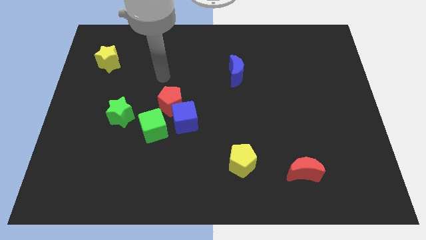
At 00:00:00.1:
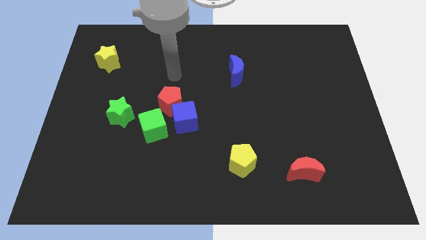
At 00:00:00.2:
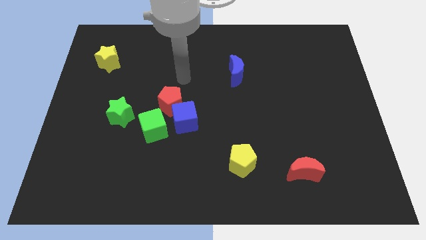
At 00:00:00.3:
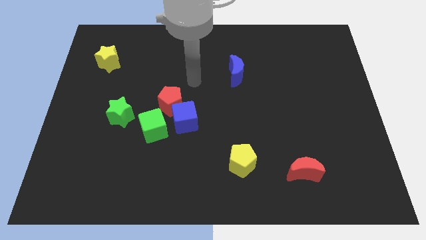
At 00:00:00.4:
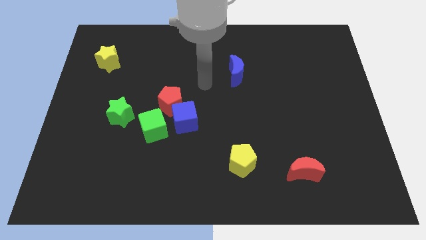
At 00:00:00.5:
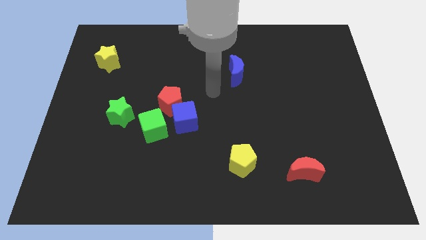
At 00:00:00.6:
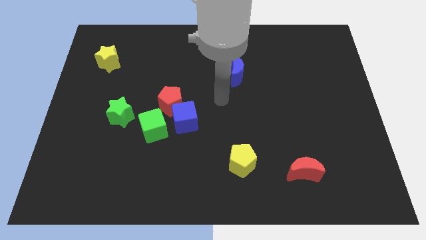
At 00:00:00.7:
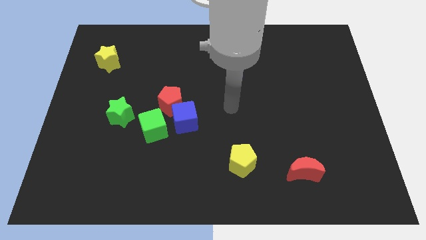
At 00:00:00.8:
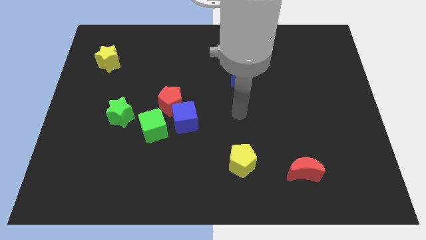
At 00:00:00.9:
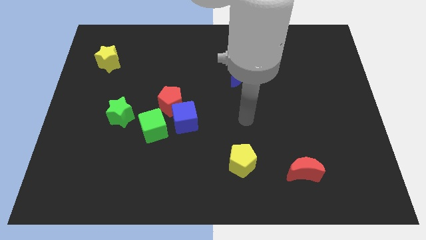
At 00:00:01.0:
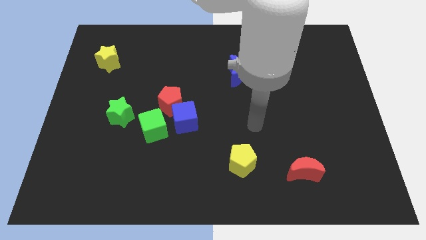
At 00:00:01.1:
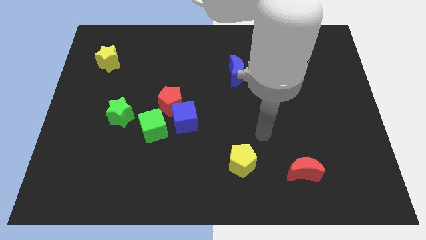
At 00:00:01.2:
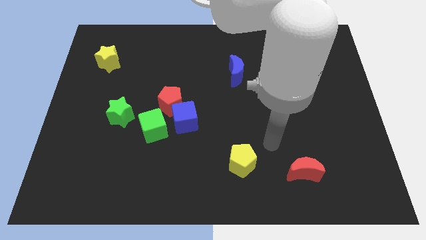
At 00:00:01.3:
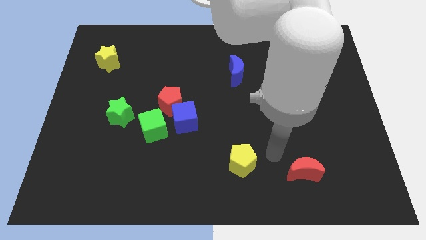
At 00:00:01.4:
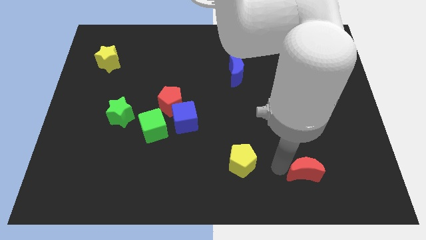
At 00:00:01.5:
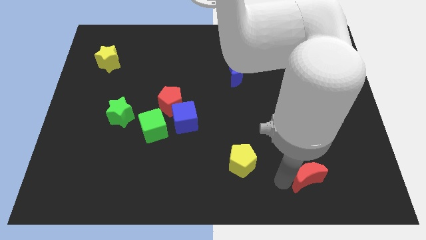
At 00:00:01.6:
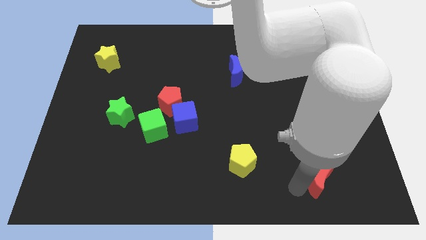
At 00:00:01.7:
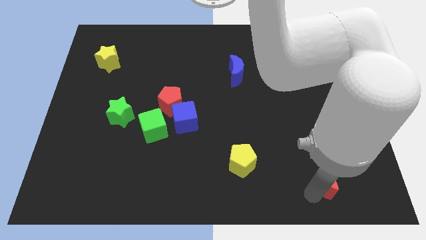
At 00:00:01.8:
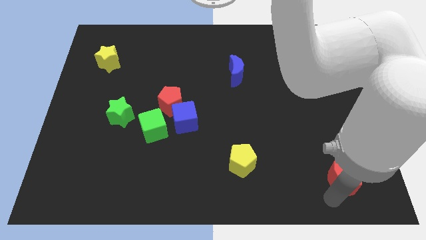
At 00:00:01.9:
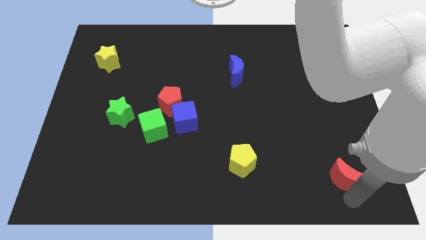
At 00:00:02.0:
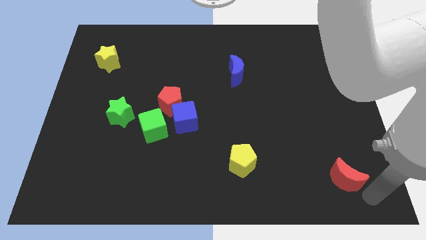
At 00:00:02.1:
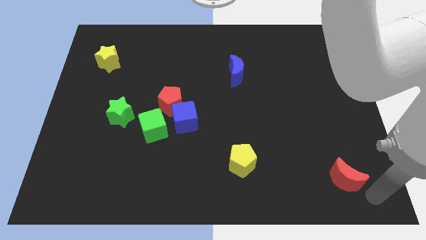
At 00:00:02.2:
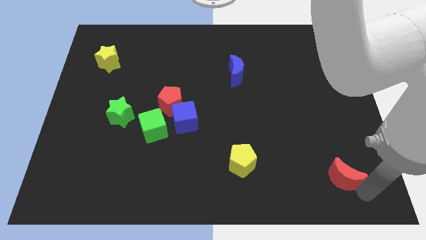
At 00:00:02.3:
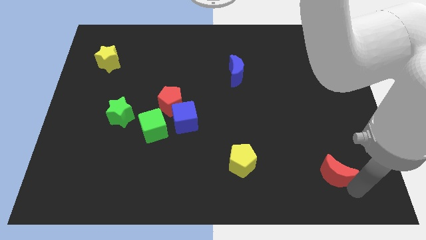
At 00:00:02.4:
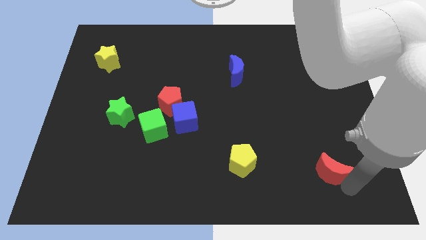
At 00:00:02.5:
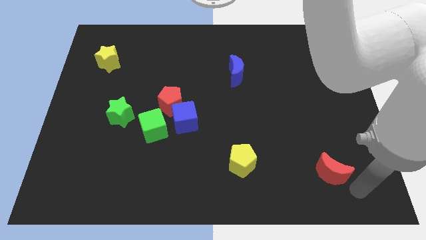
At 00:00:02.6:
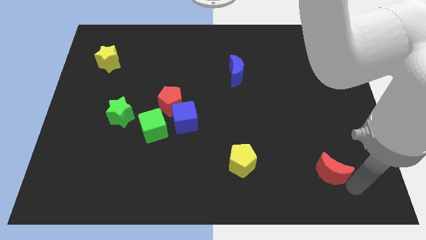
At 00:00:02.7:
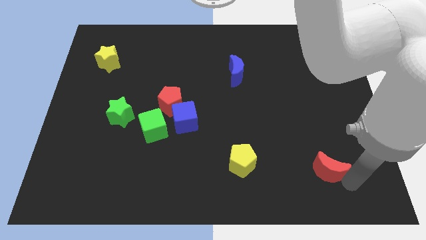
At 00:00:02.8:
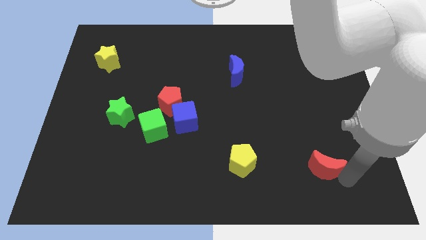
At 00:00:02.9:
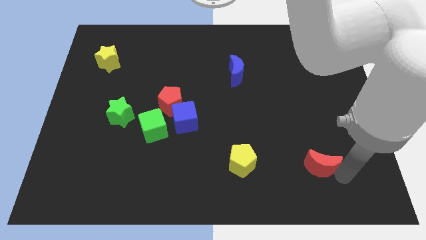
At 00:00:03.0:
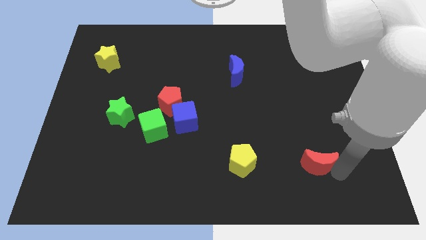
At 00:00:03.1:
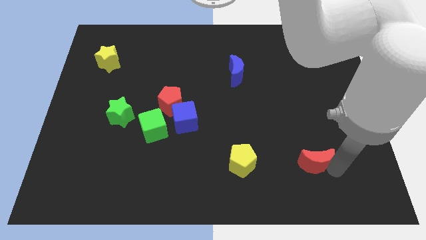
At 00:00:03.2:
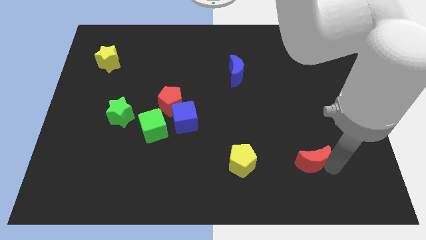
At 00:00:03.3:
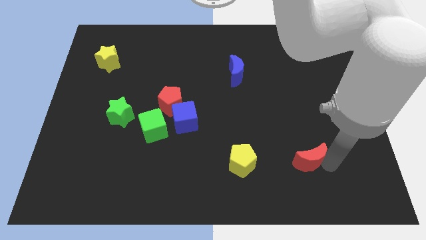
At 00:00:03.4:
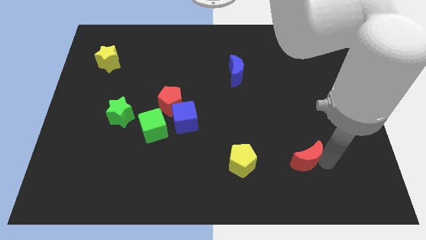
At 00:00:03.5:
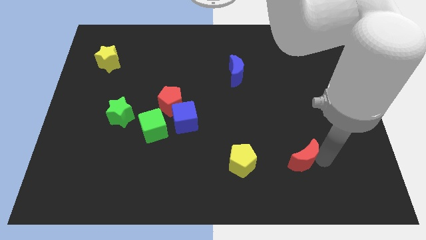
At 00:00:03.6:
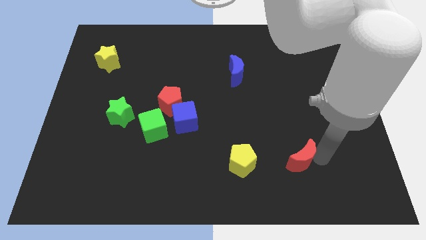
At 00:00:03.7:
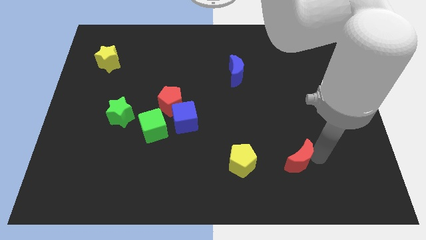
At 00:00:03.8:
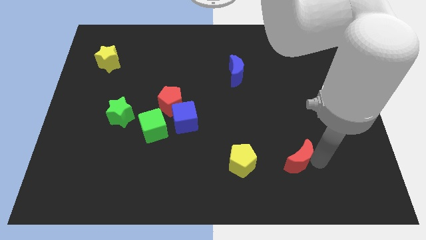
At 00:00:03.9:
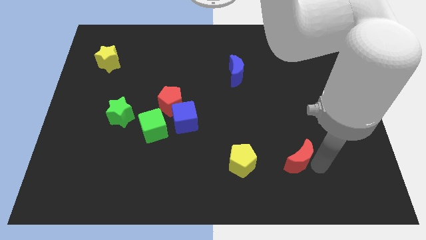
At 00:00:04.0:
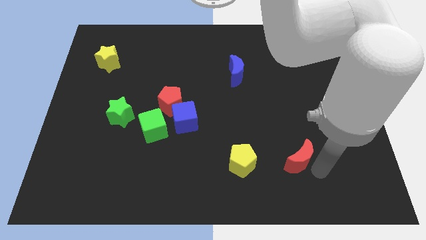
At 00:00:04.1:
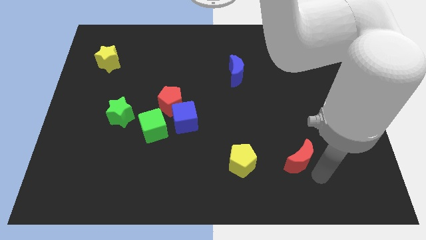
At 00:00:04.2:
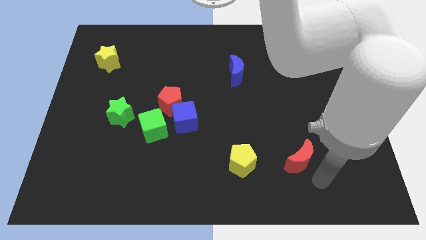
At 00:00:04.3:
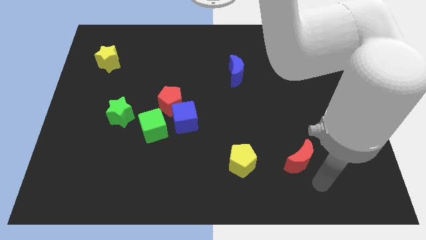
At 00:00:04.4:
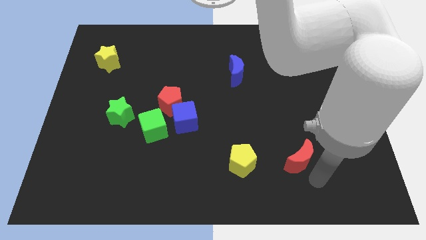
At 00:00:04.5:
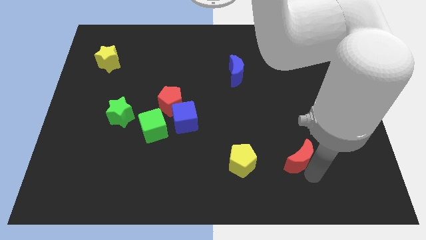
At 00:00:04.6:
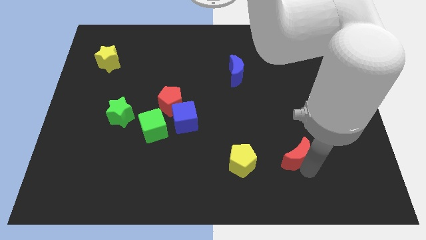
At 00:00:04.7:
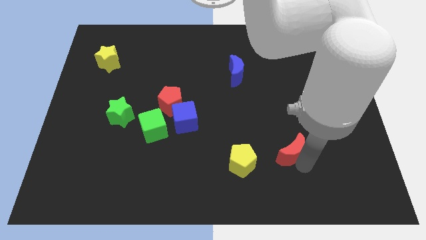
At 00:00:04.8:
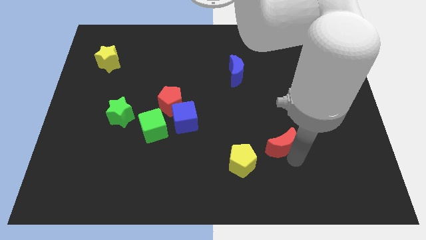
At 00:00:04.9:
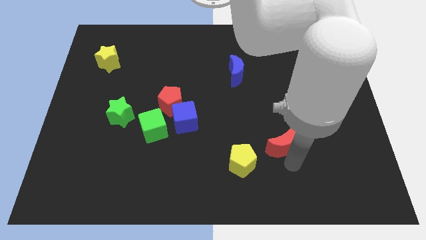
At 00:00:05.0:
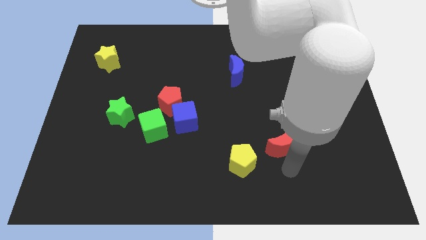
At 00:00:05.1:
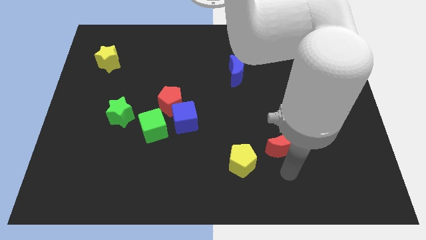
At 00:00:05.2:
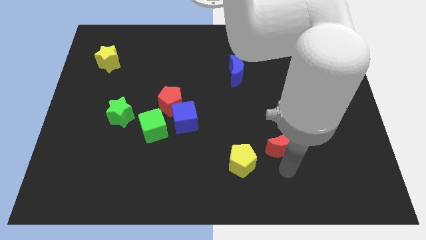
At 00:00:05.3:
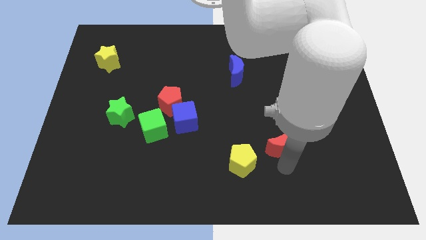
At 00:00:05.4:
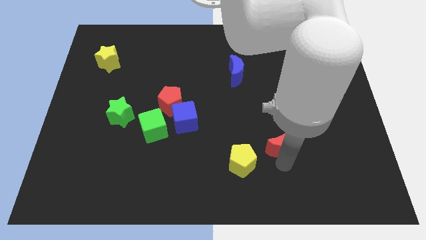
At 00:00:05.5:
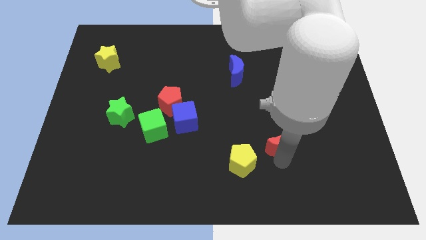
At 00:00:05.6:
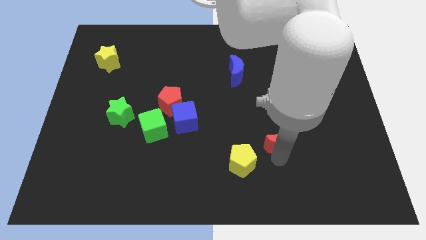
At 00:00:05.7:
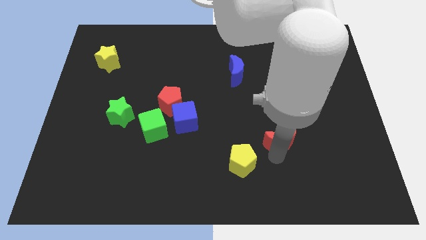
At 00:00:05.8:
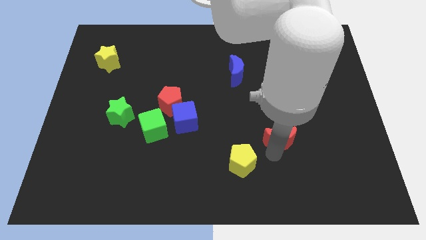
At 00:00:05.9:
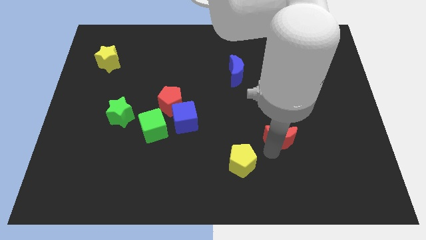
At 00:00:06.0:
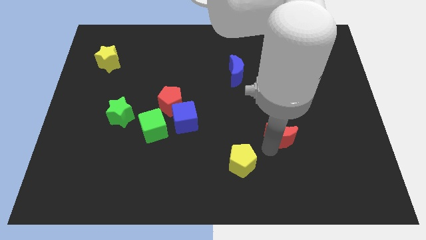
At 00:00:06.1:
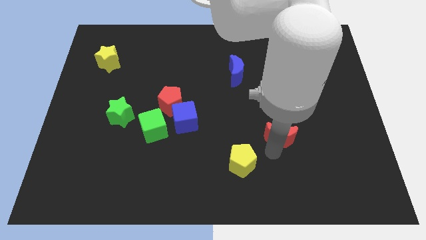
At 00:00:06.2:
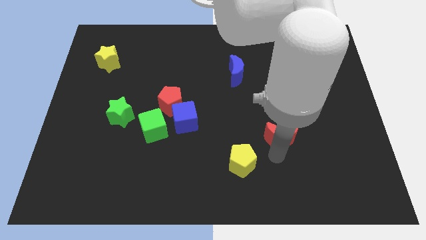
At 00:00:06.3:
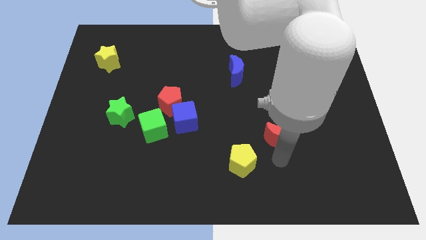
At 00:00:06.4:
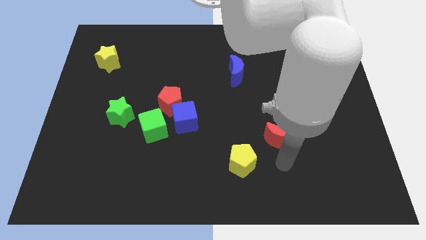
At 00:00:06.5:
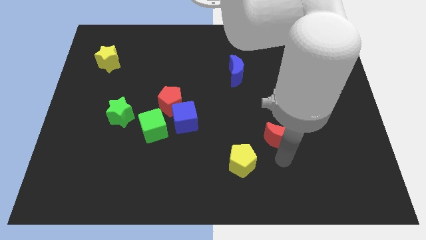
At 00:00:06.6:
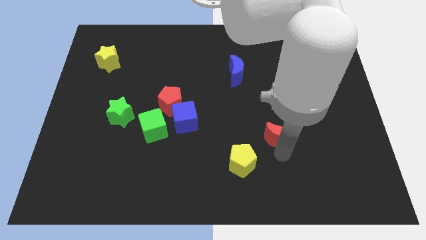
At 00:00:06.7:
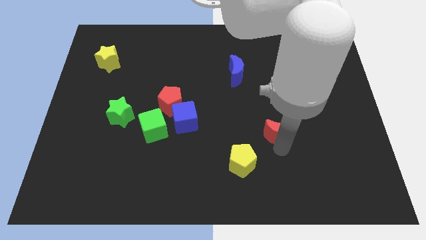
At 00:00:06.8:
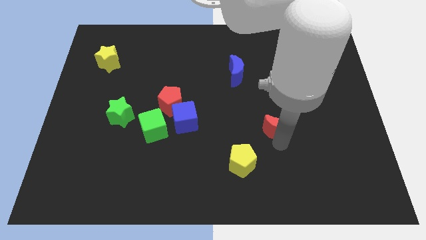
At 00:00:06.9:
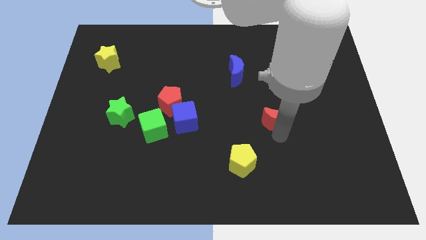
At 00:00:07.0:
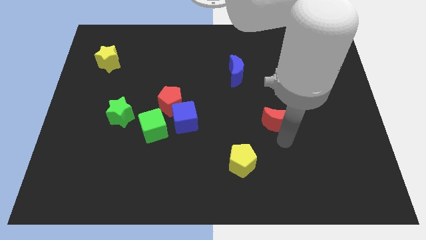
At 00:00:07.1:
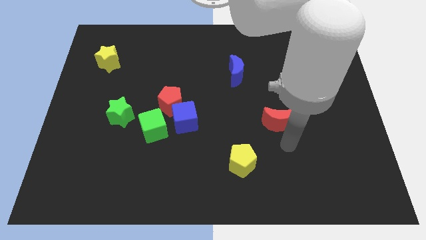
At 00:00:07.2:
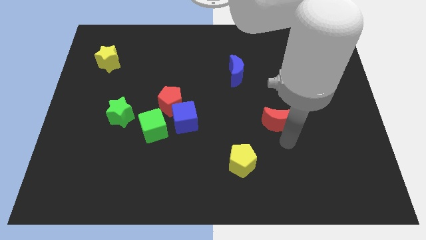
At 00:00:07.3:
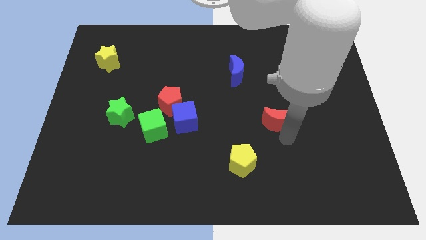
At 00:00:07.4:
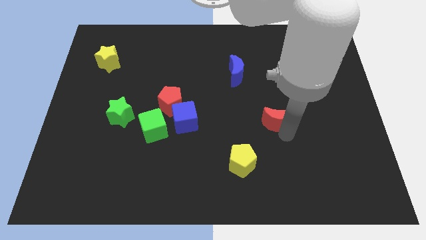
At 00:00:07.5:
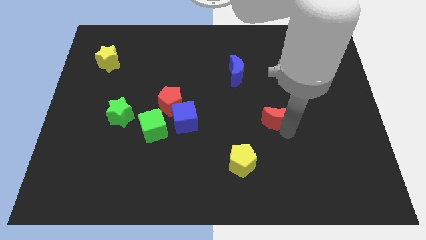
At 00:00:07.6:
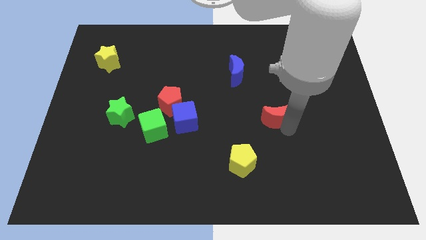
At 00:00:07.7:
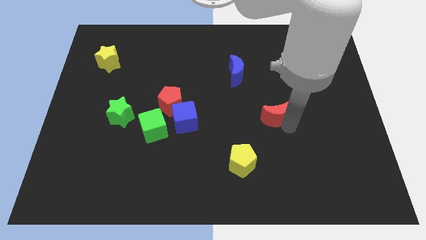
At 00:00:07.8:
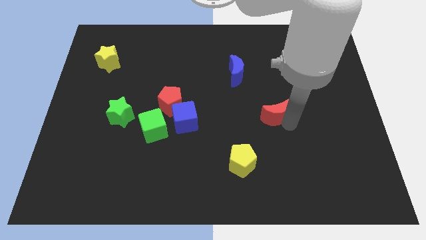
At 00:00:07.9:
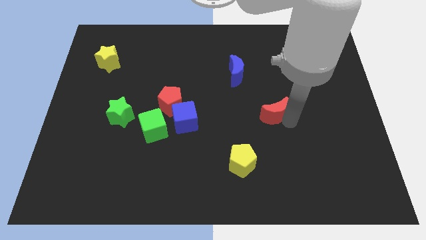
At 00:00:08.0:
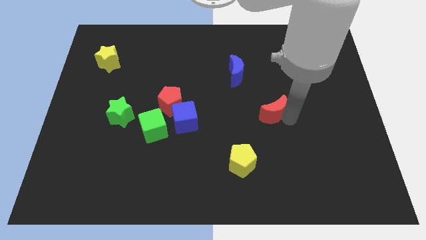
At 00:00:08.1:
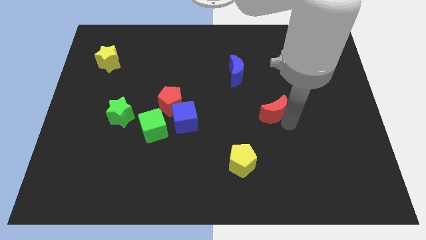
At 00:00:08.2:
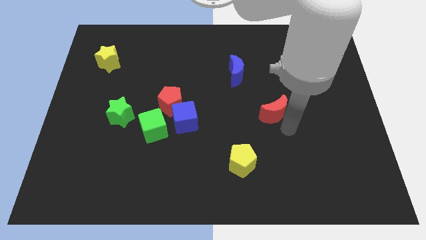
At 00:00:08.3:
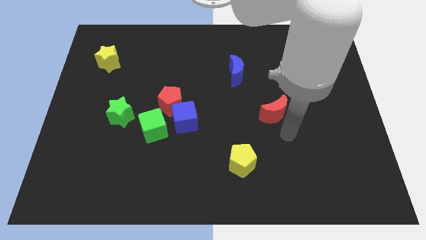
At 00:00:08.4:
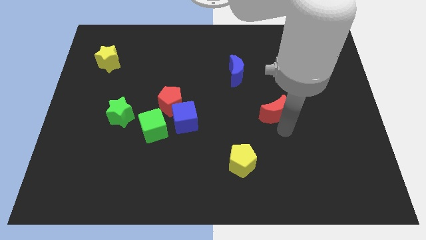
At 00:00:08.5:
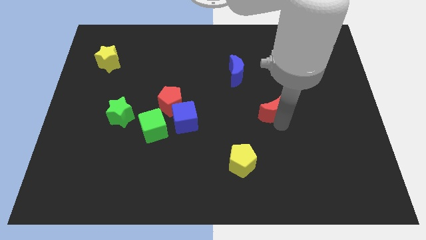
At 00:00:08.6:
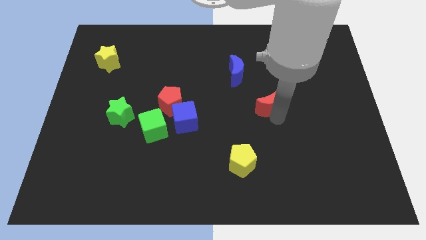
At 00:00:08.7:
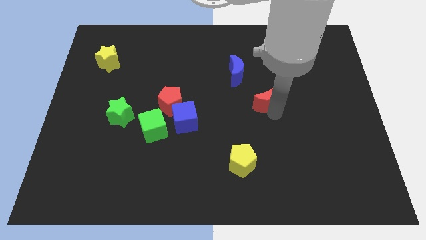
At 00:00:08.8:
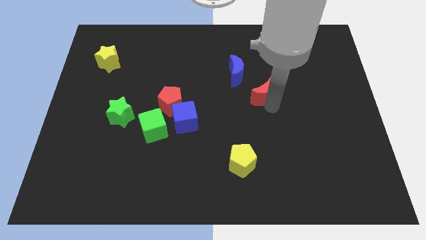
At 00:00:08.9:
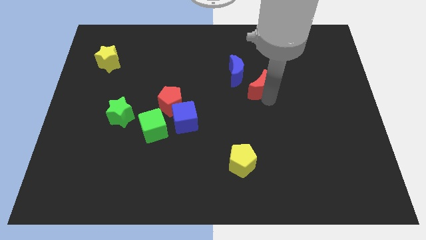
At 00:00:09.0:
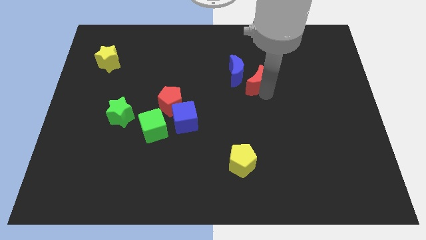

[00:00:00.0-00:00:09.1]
slide the red moon close to the blue moon
